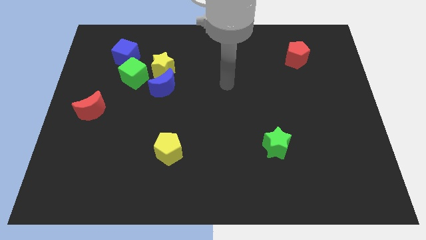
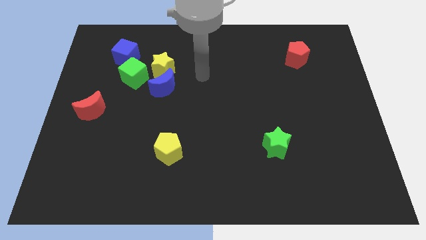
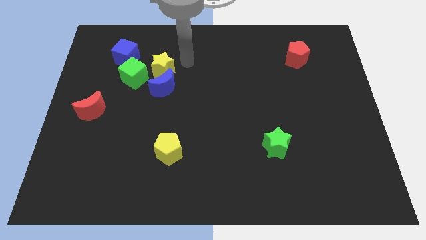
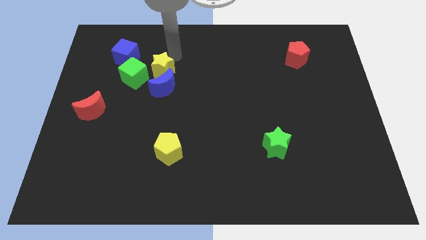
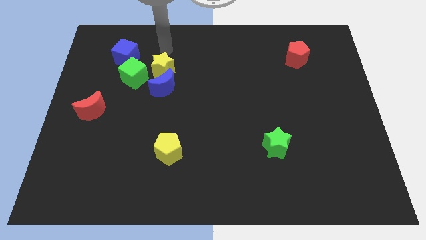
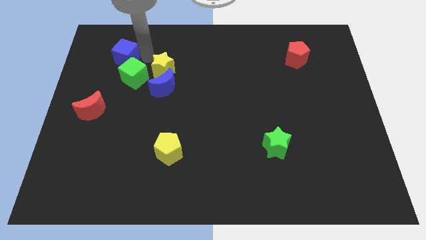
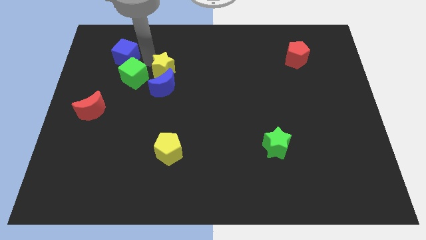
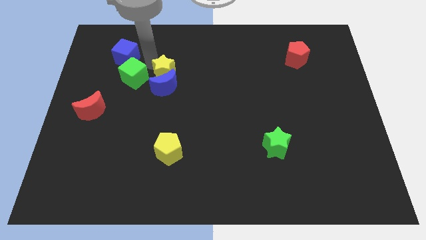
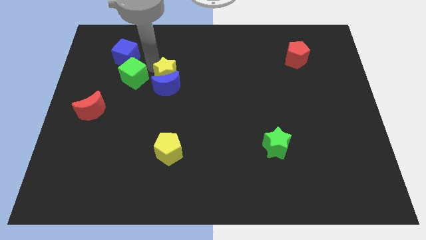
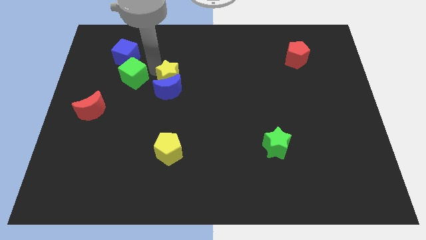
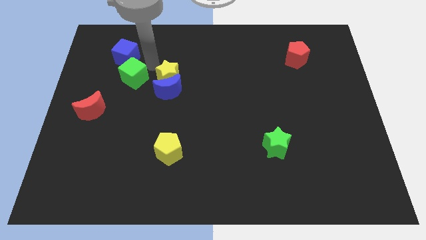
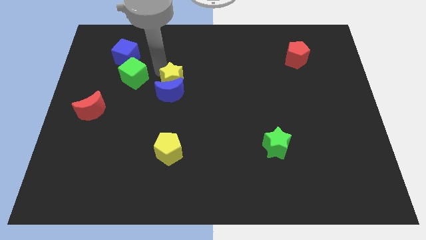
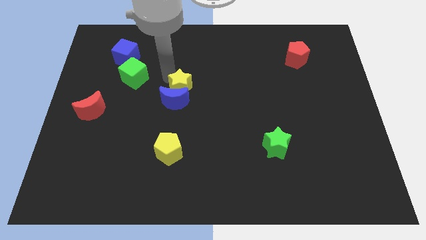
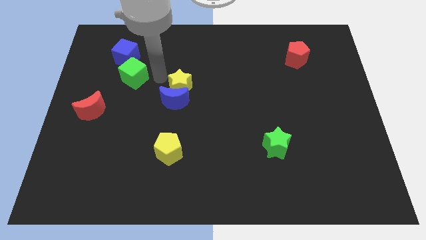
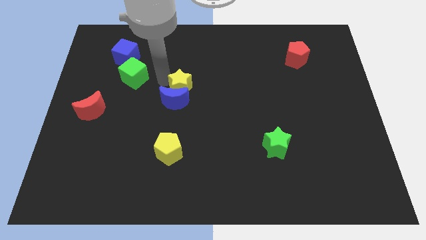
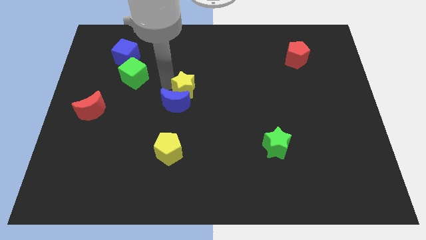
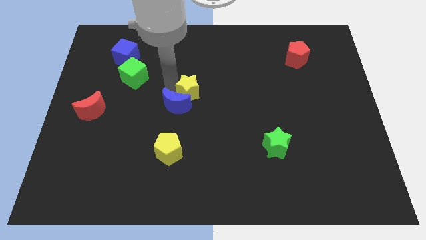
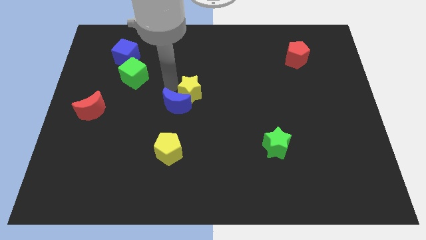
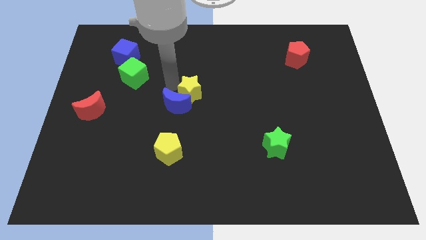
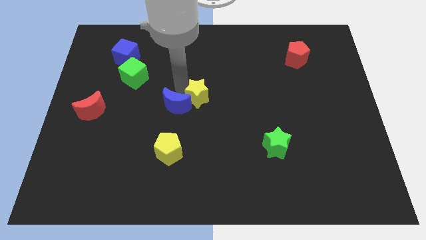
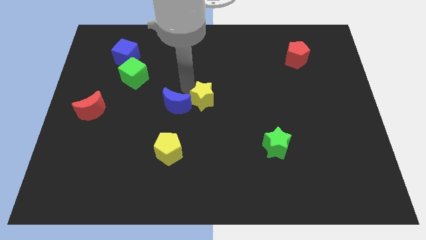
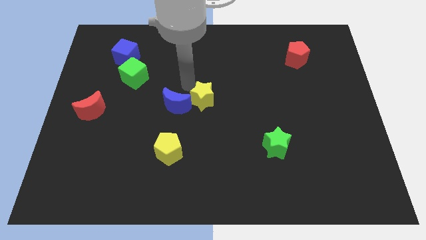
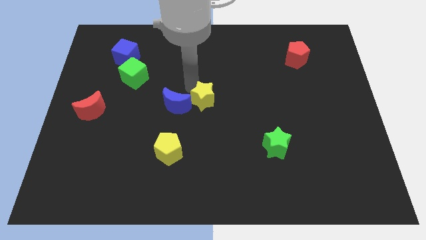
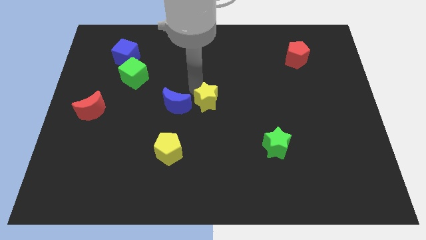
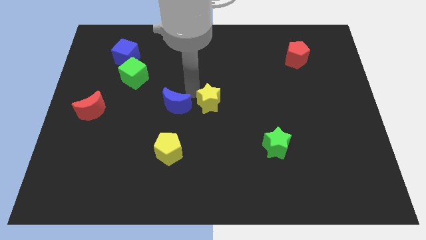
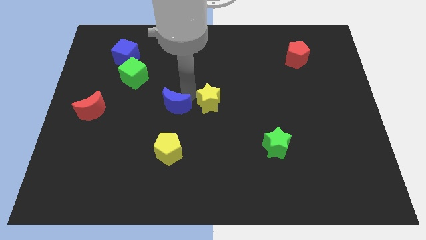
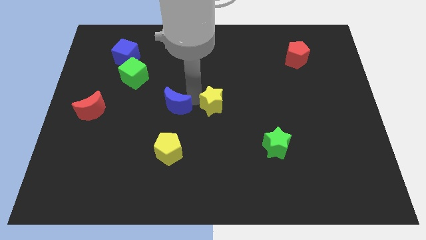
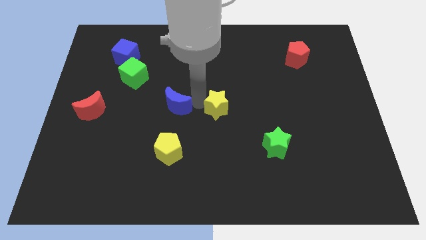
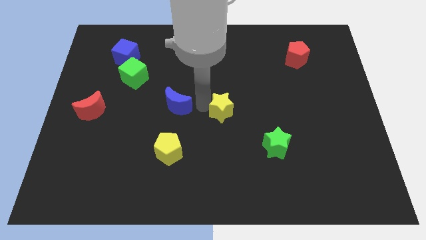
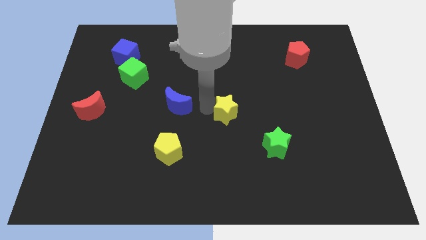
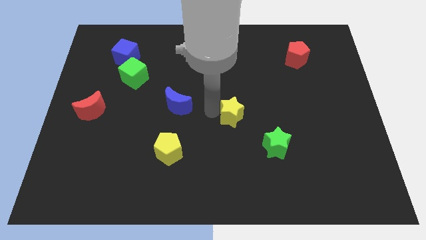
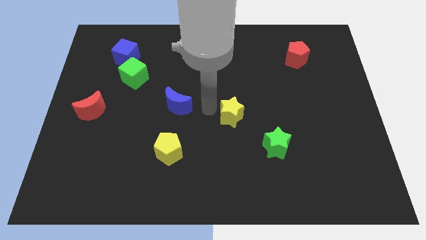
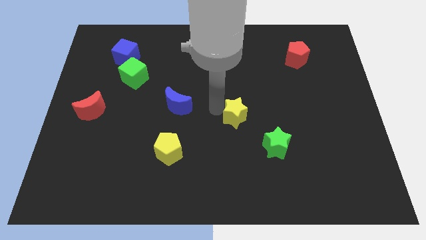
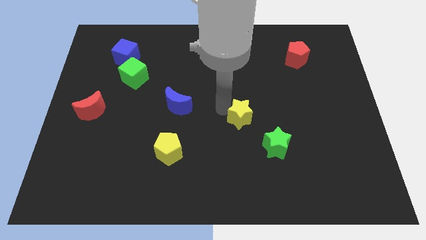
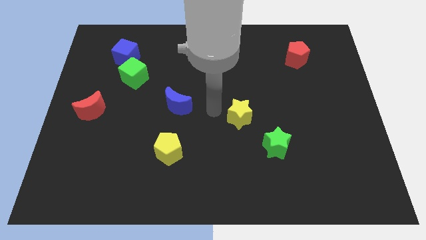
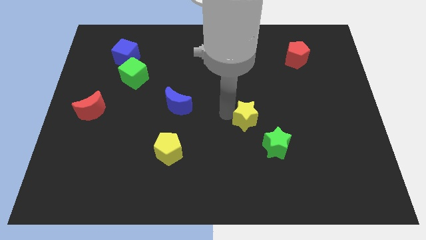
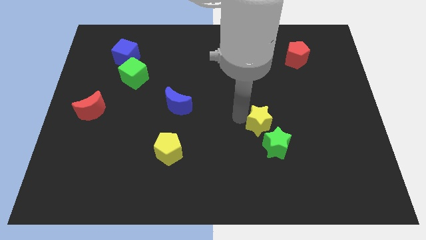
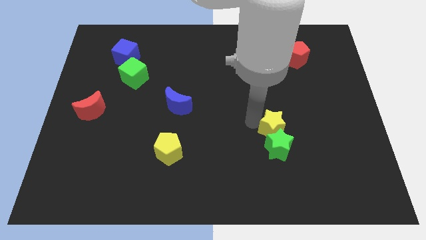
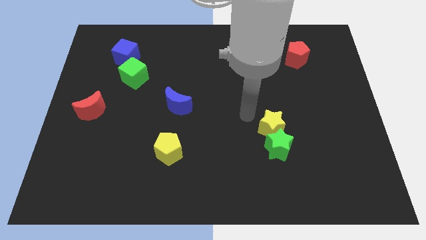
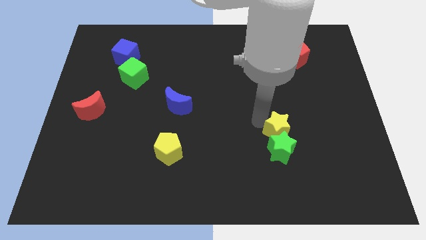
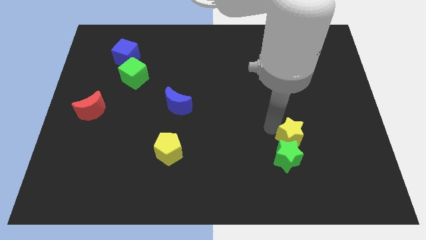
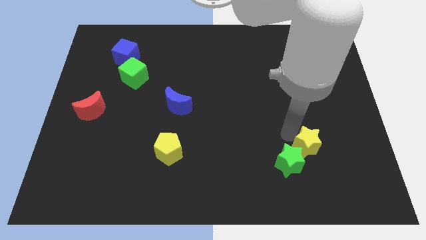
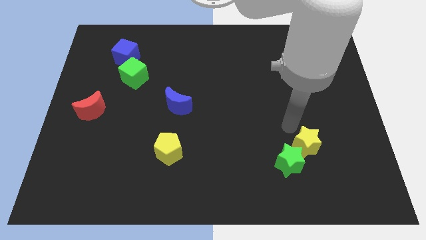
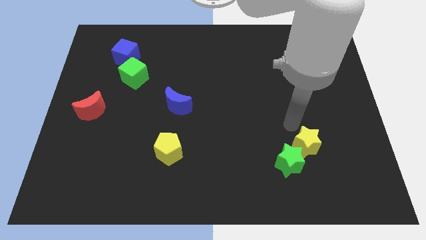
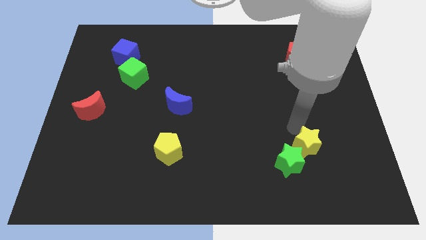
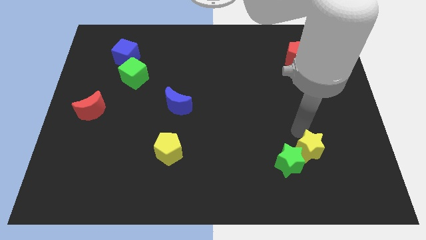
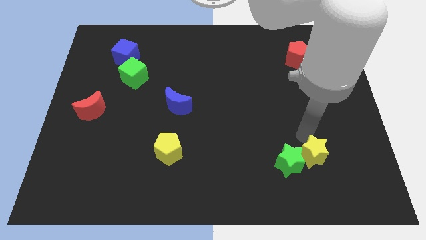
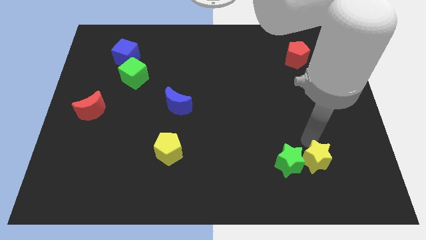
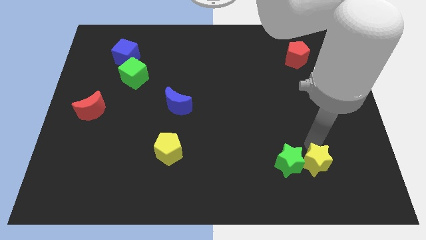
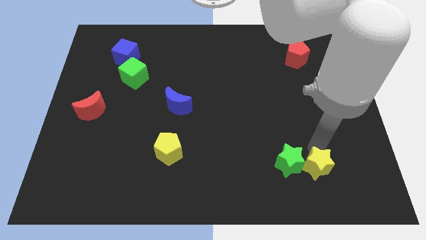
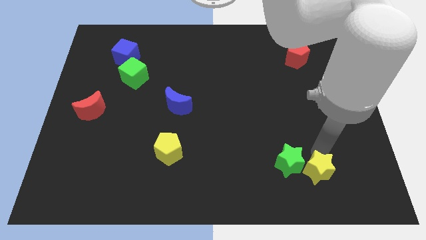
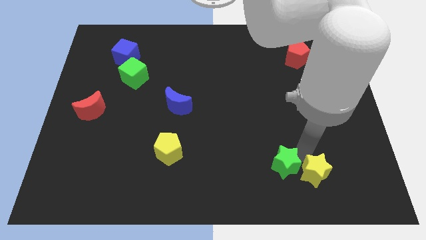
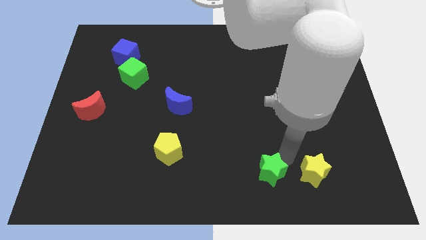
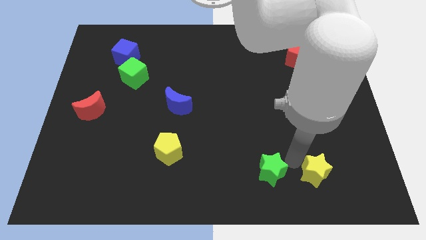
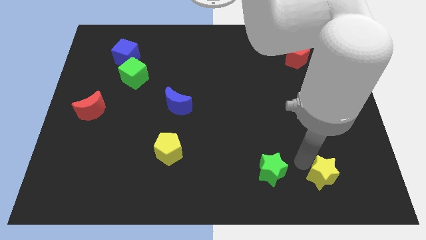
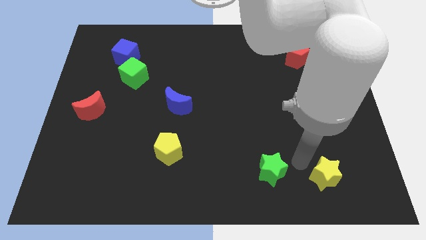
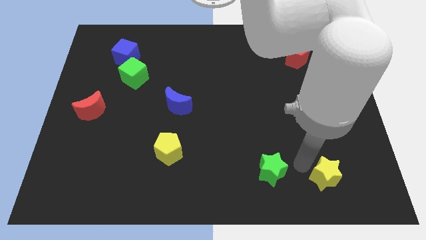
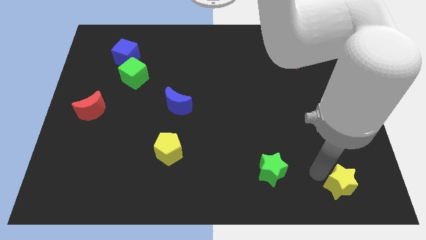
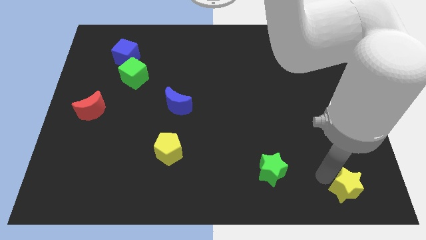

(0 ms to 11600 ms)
push the yellow star to the bottom right corner

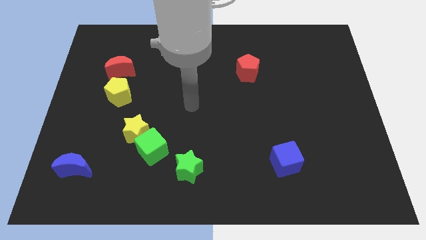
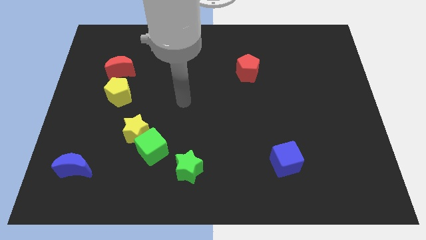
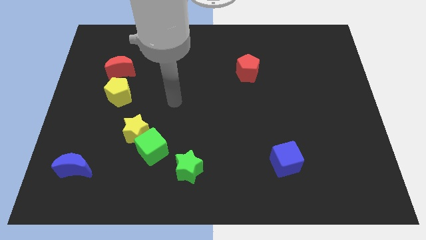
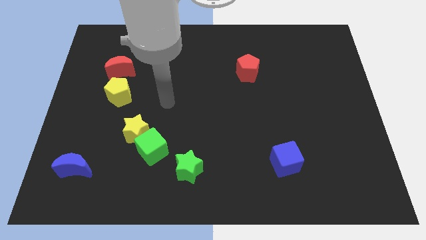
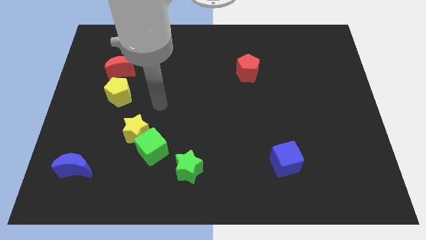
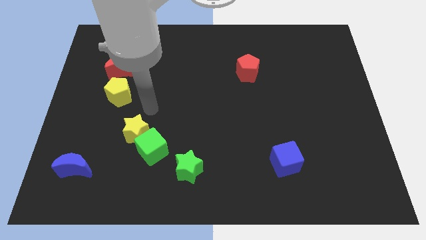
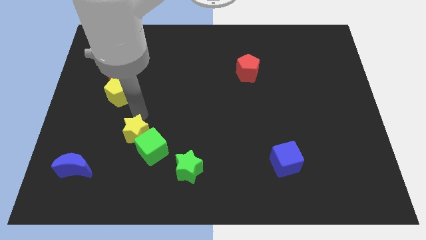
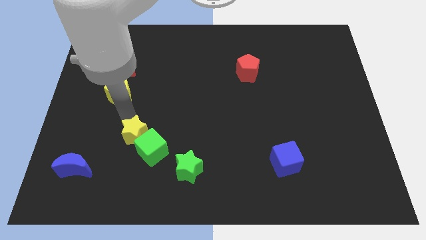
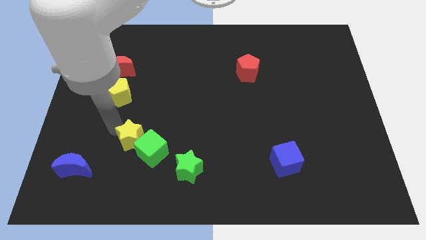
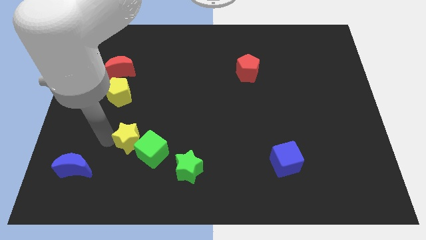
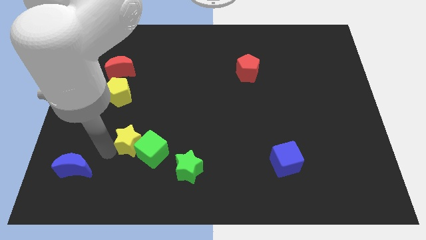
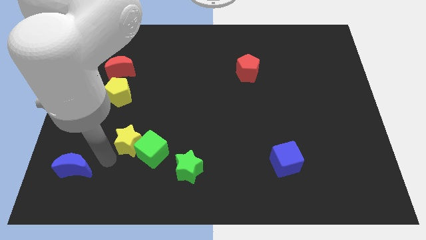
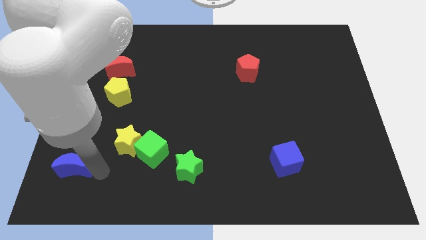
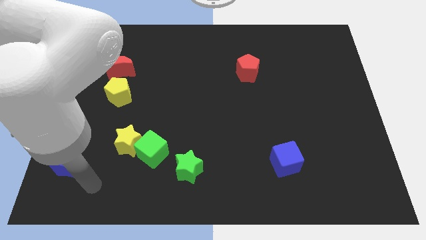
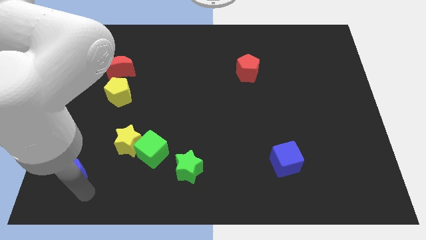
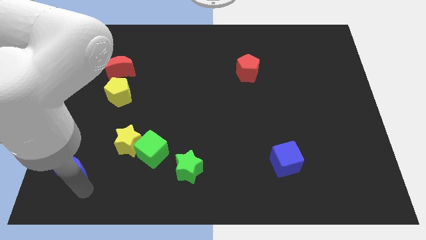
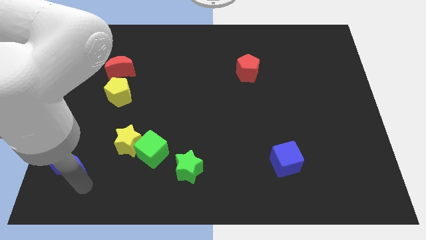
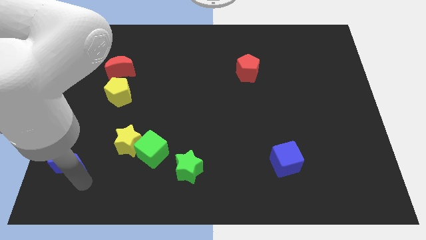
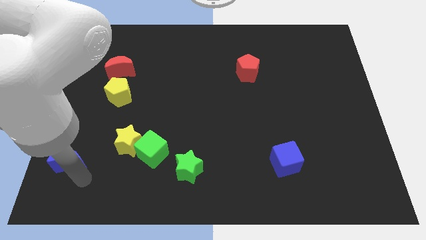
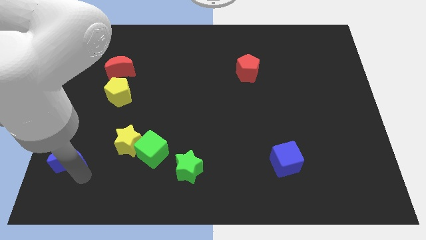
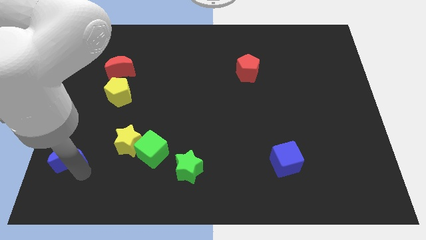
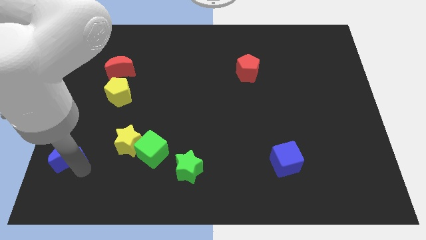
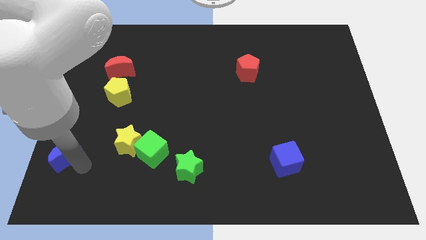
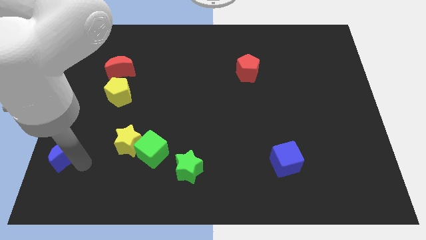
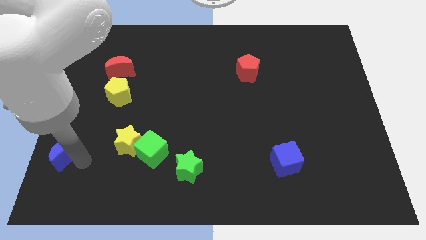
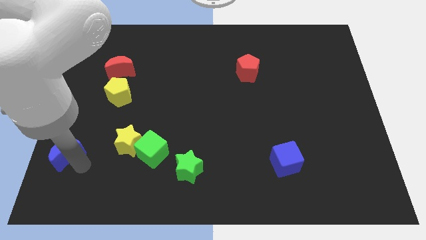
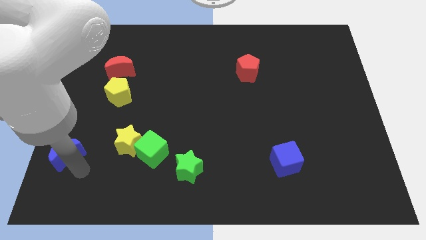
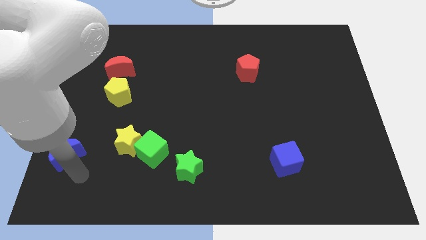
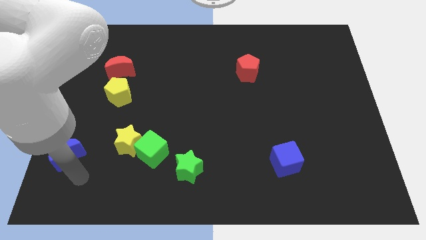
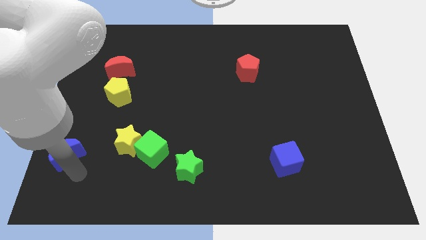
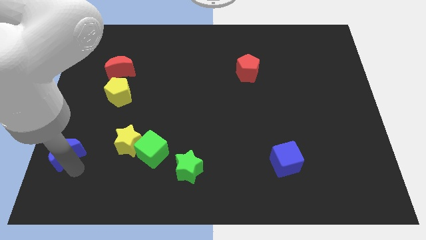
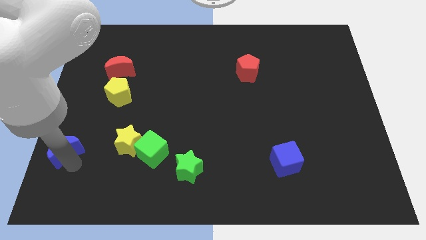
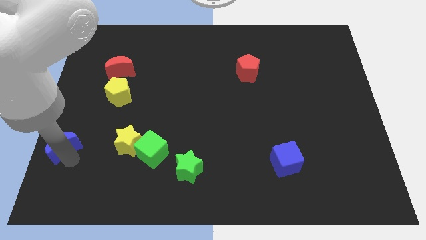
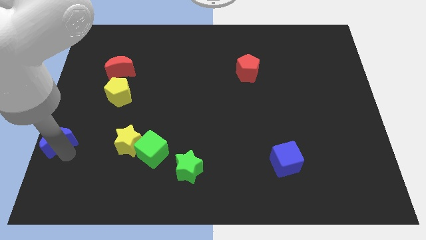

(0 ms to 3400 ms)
put the blue moon to the center left
